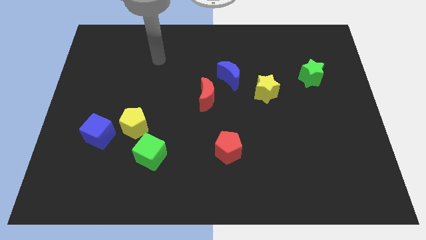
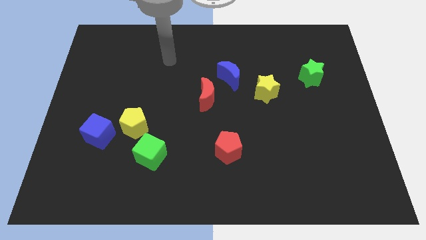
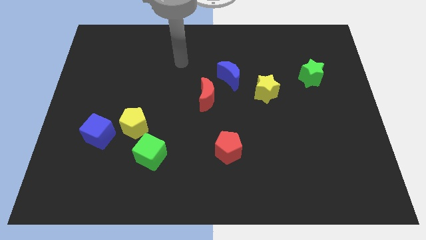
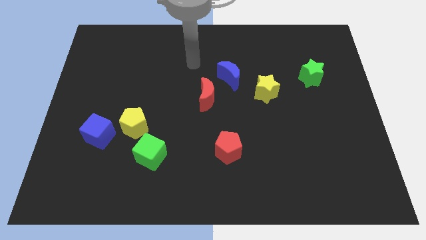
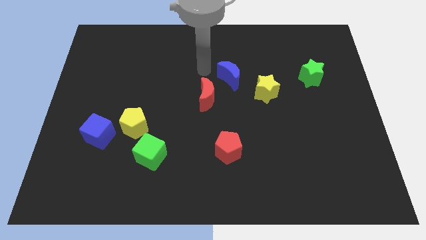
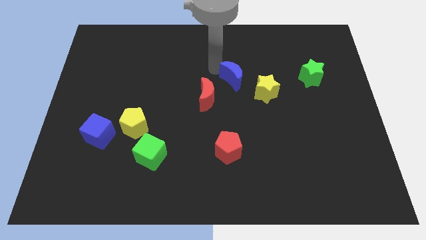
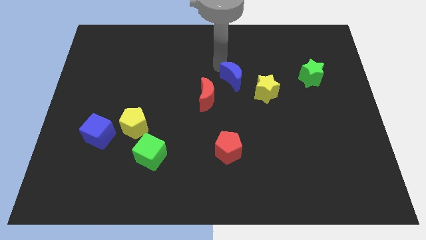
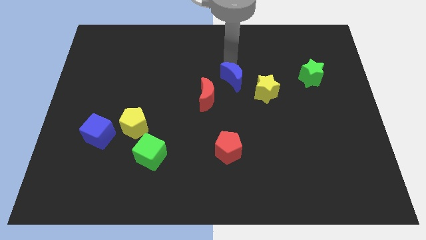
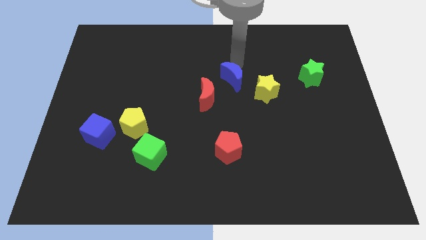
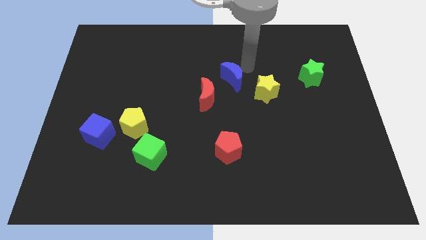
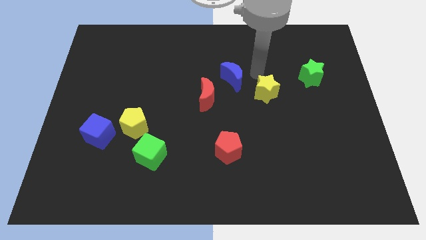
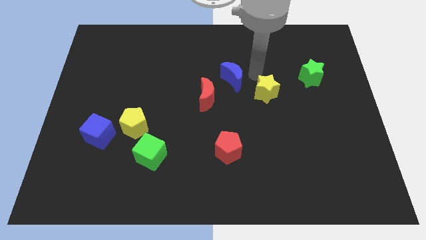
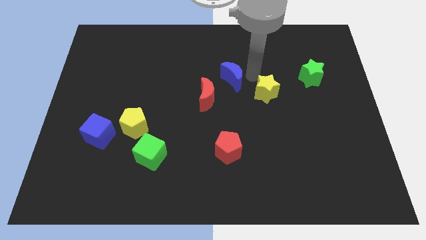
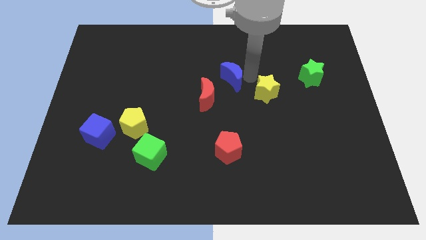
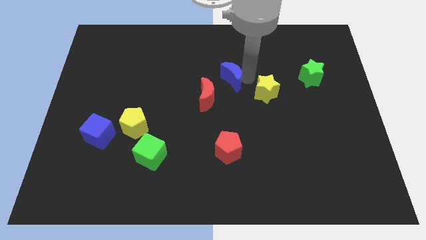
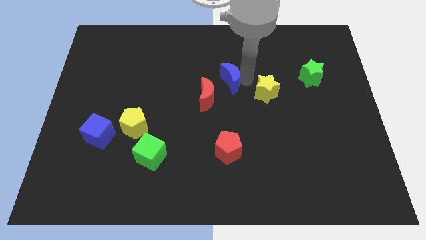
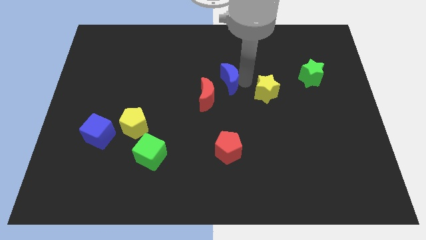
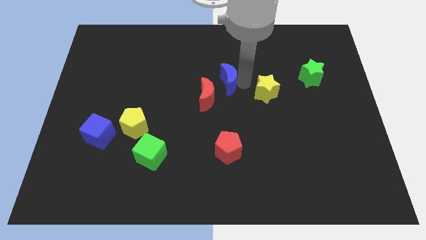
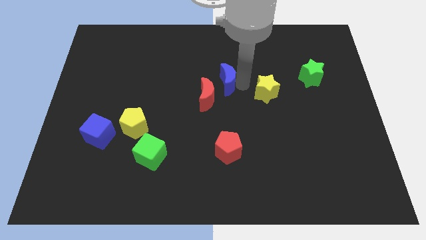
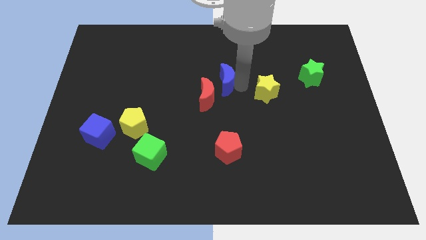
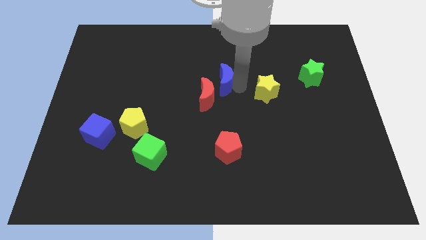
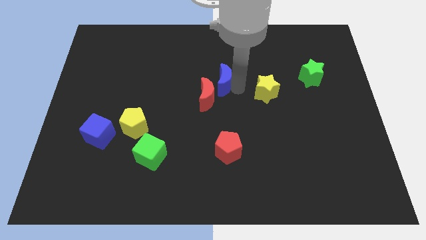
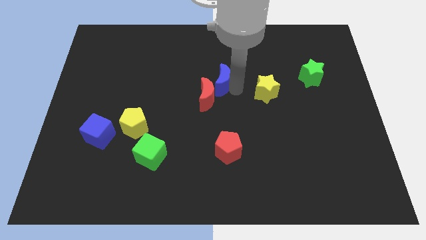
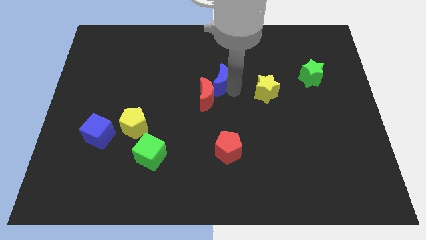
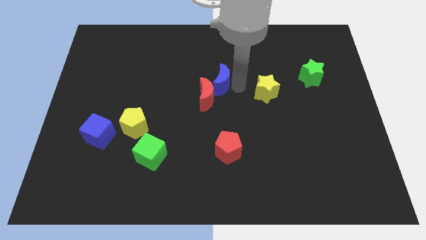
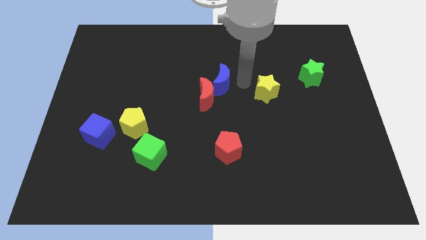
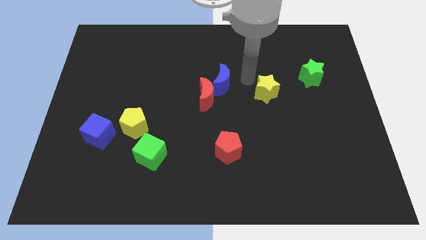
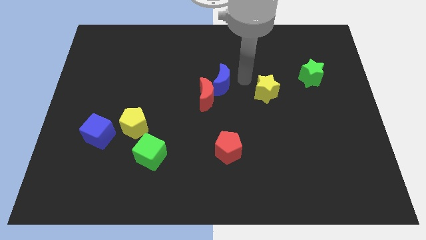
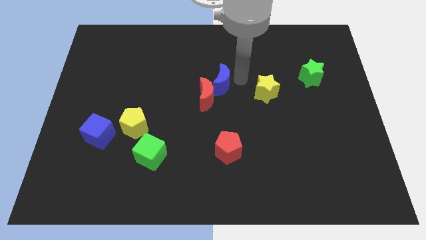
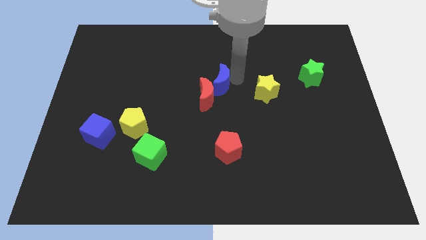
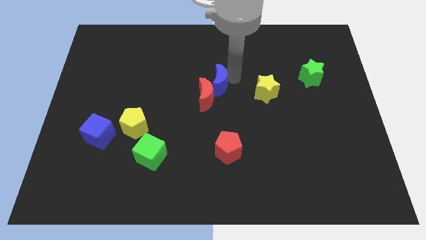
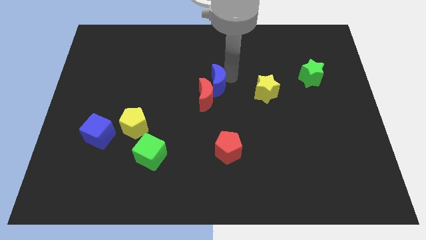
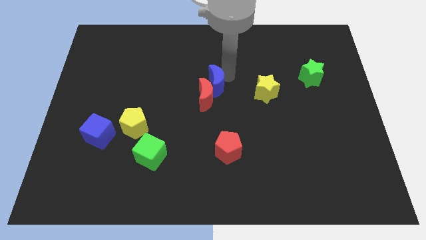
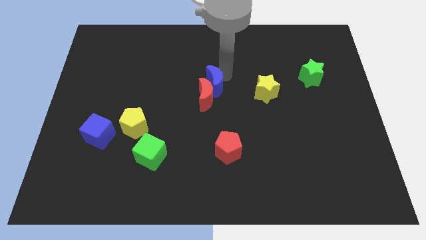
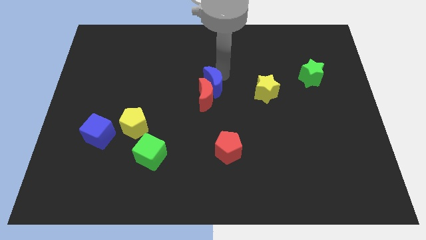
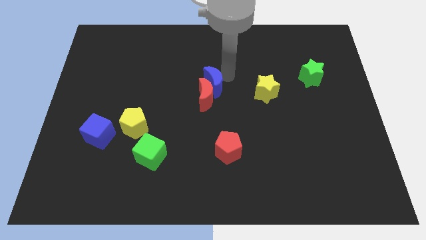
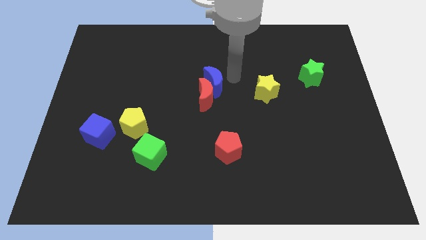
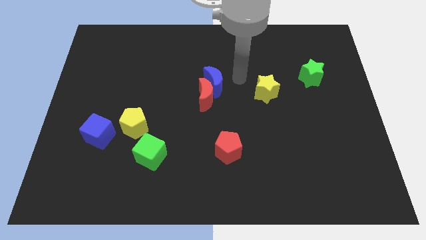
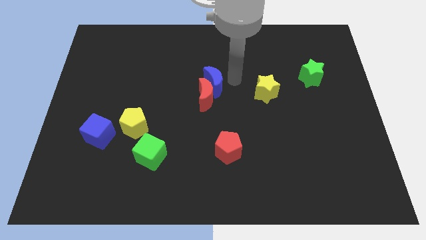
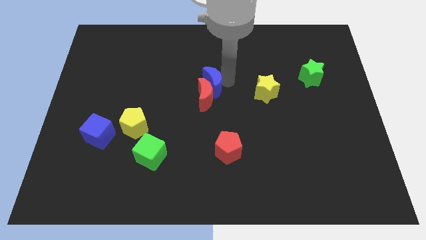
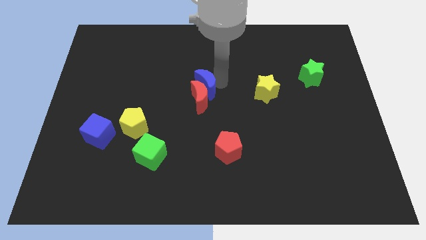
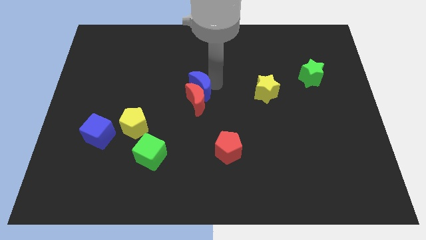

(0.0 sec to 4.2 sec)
slightly move the blue moon diagonally down and to the left

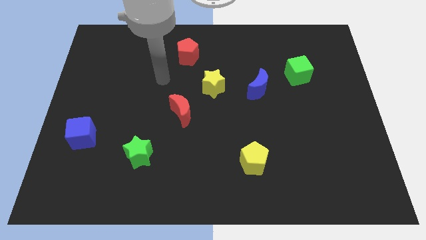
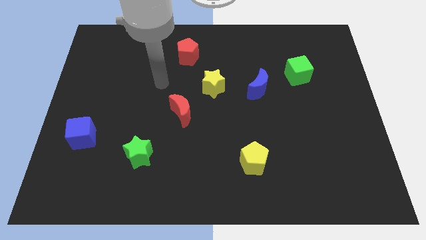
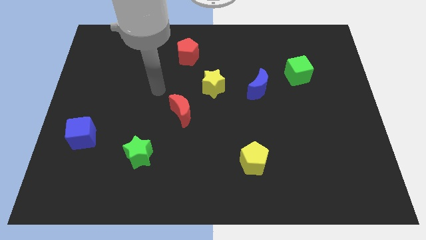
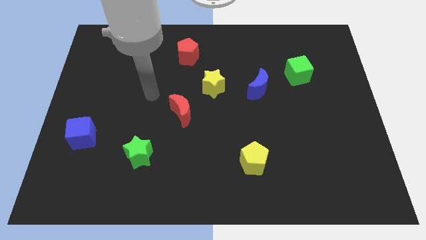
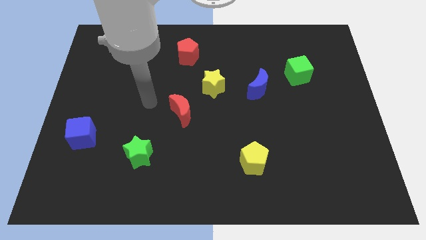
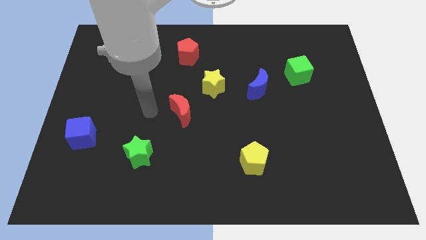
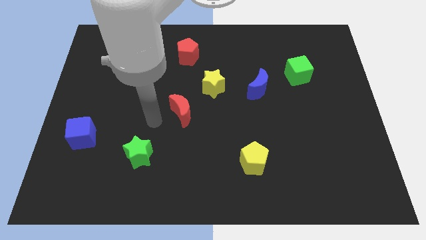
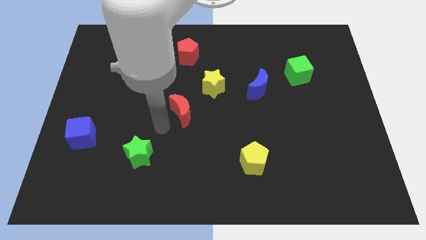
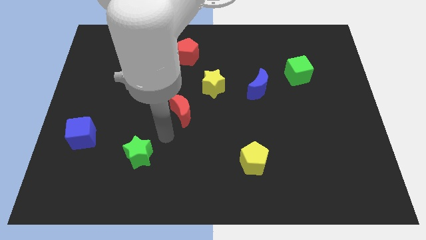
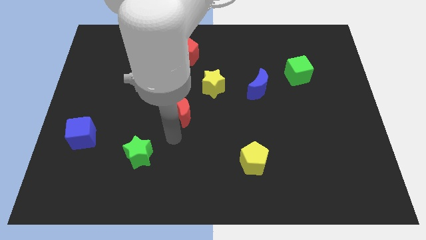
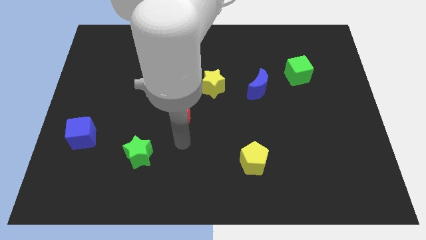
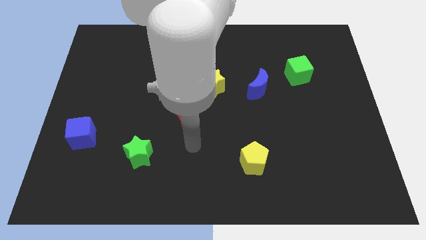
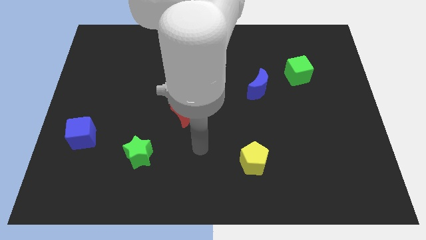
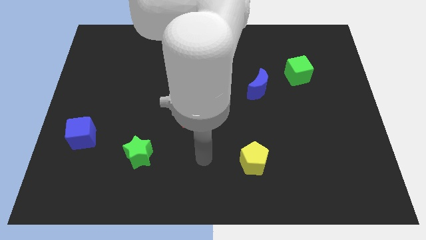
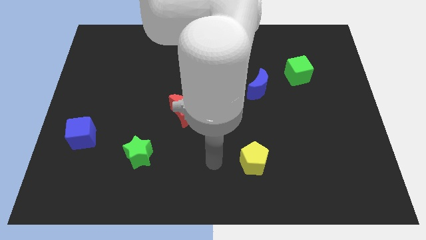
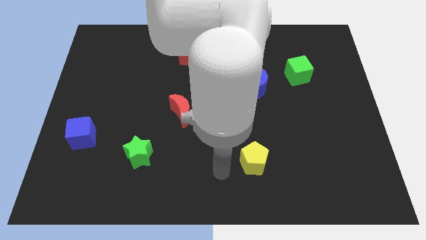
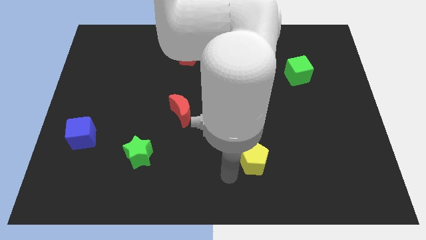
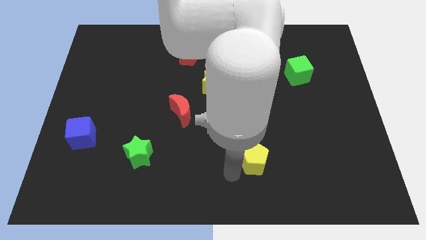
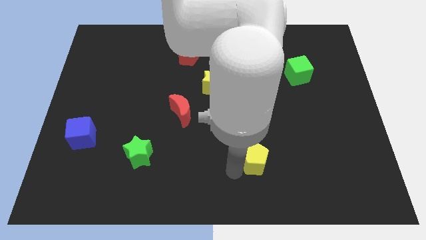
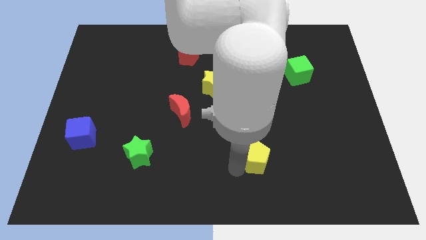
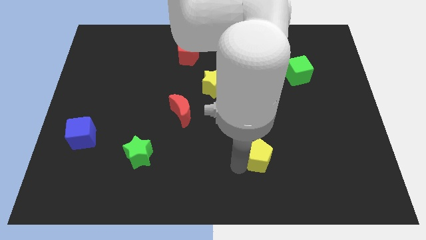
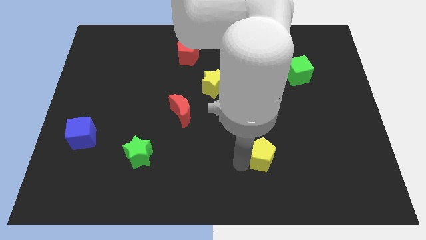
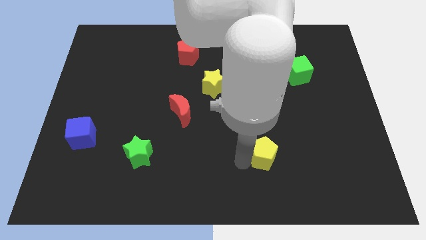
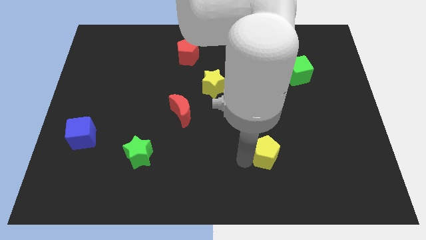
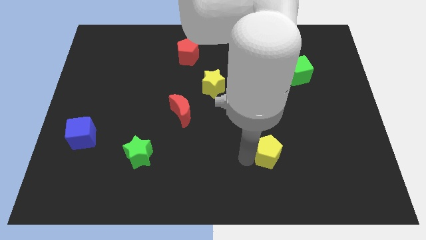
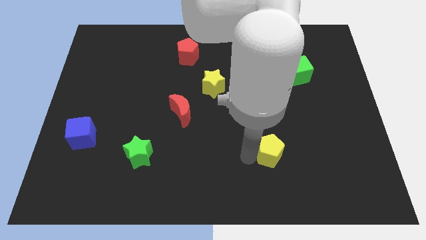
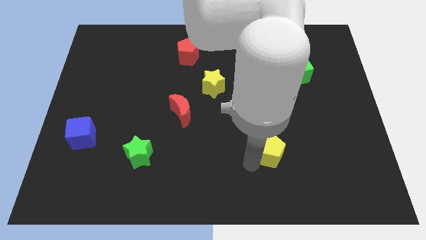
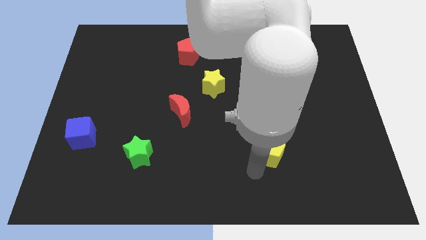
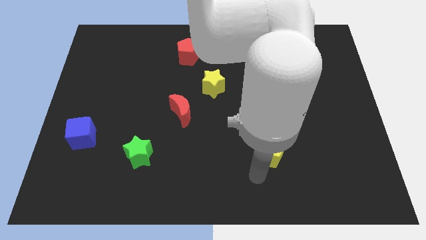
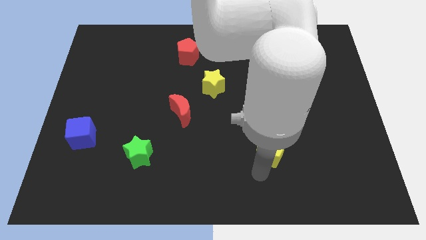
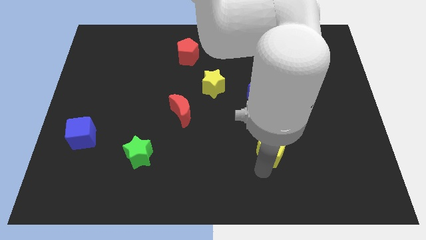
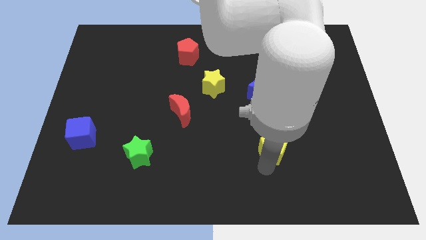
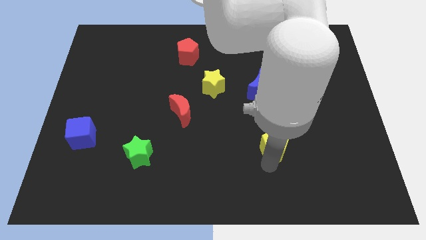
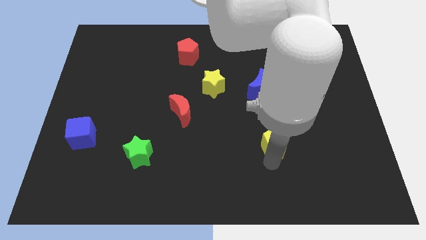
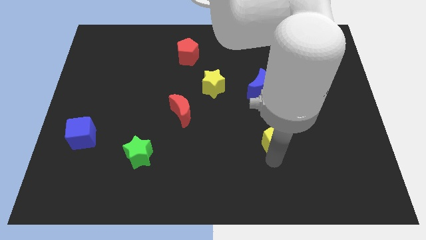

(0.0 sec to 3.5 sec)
slightly slide the yellow pentagon upwards and right diagonally
